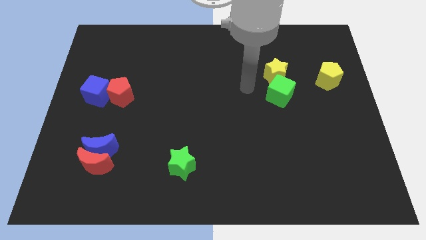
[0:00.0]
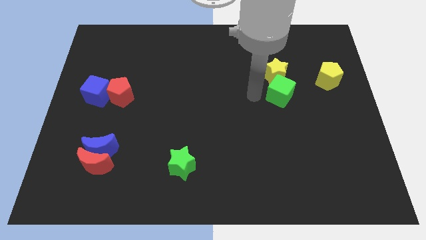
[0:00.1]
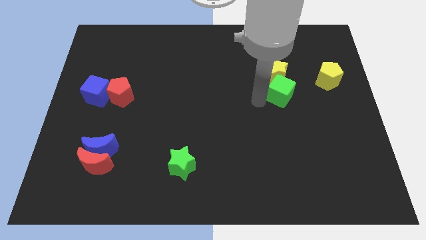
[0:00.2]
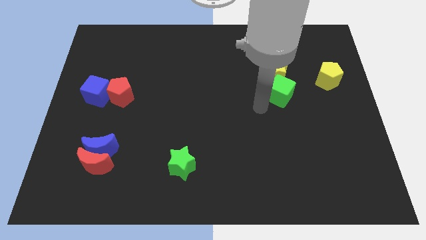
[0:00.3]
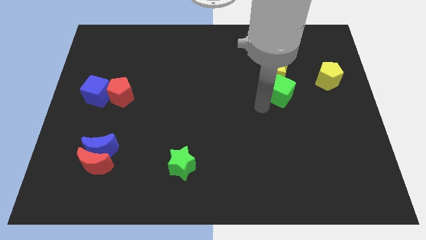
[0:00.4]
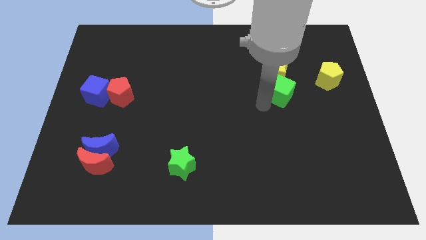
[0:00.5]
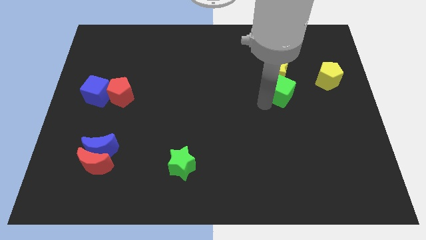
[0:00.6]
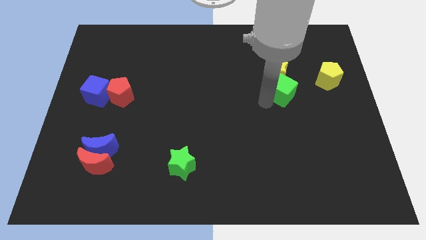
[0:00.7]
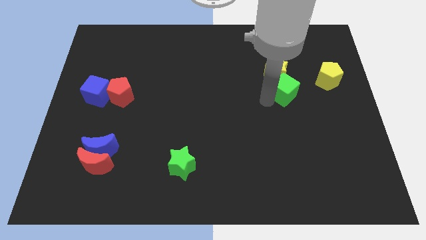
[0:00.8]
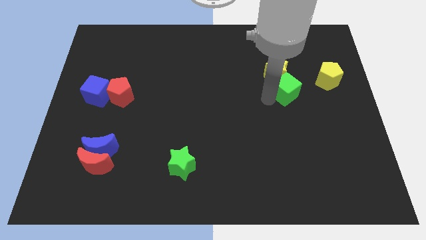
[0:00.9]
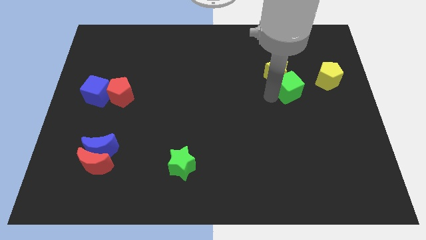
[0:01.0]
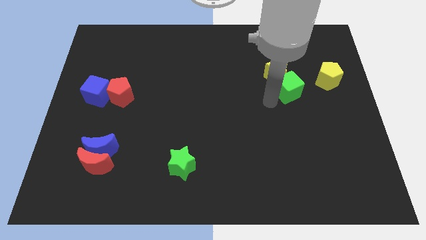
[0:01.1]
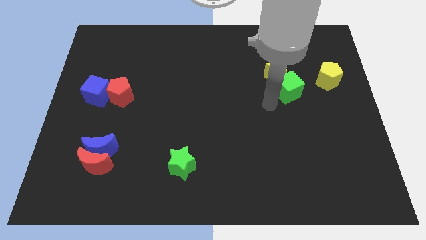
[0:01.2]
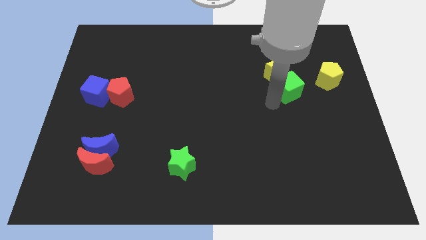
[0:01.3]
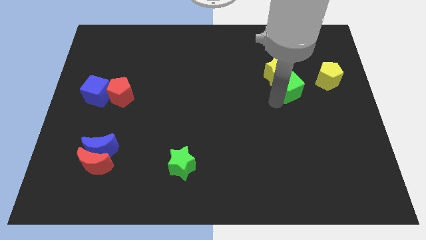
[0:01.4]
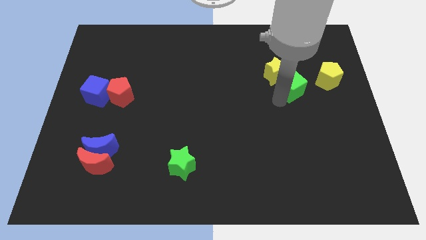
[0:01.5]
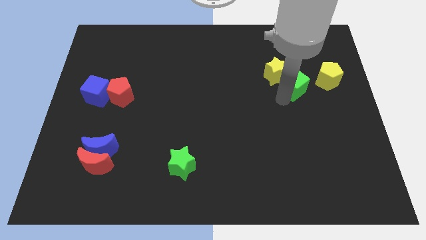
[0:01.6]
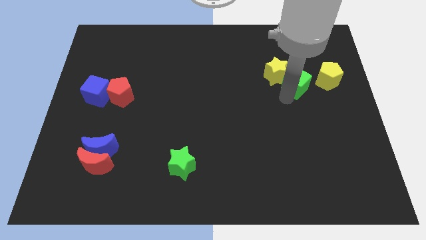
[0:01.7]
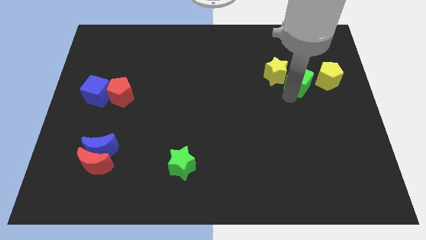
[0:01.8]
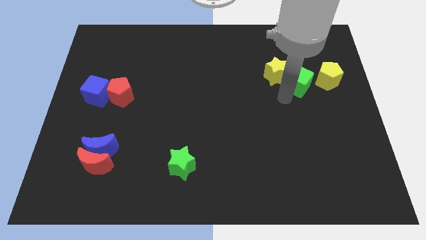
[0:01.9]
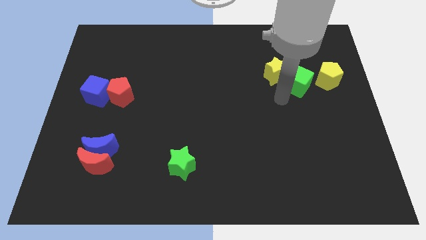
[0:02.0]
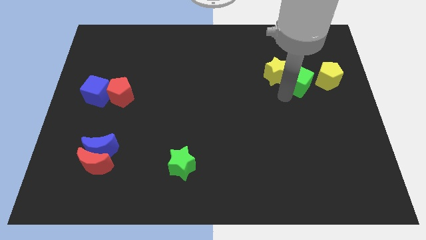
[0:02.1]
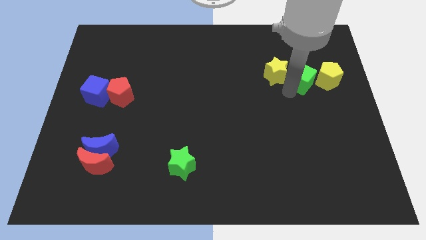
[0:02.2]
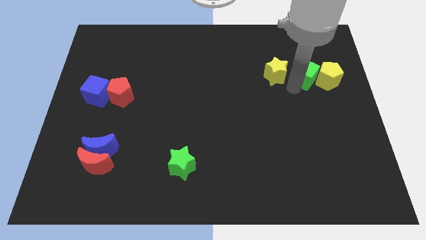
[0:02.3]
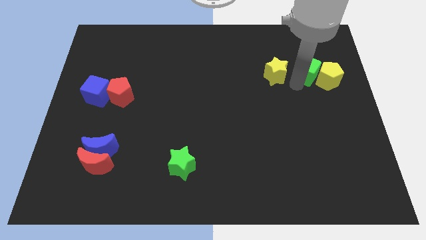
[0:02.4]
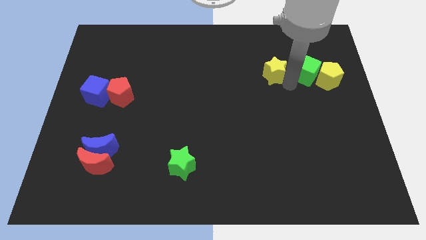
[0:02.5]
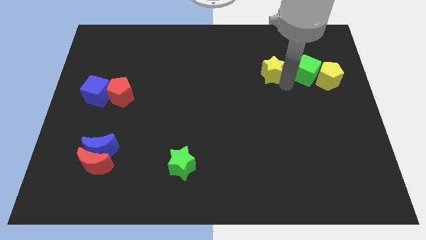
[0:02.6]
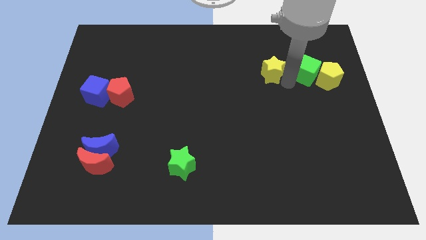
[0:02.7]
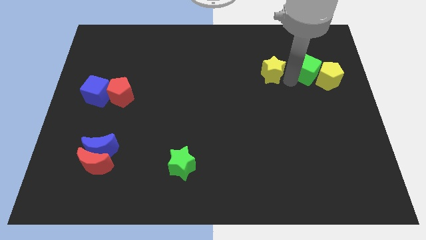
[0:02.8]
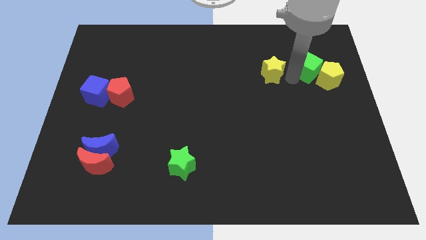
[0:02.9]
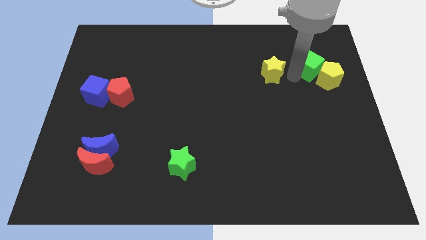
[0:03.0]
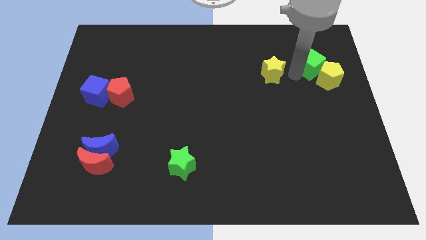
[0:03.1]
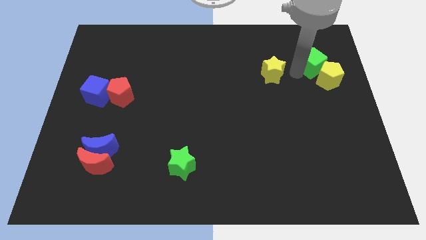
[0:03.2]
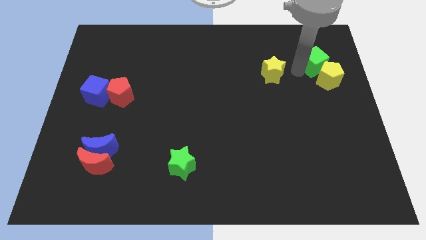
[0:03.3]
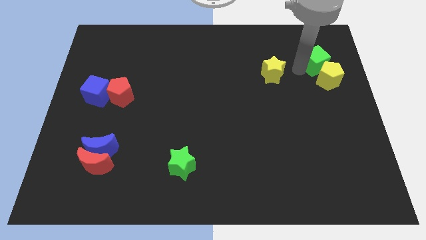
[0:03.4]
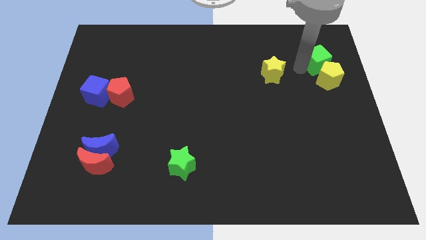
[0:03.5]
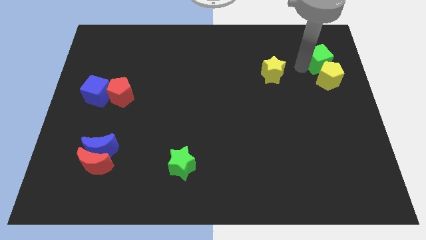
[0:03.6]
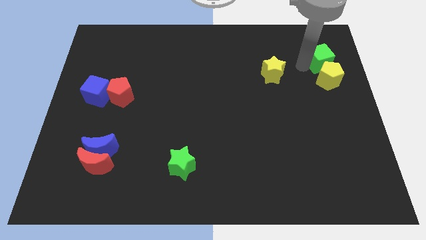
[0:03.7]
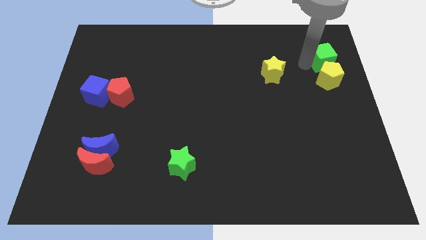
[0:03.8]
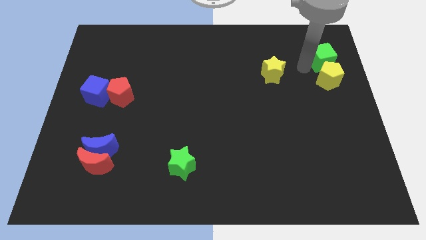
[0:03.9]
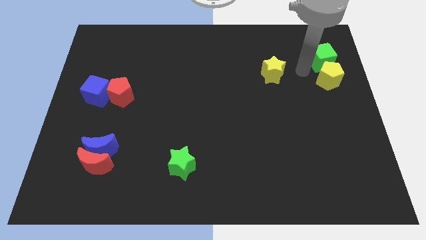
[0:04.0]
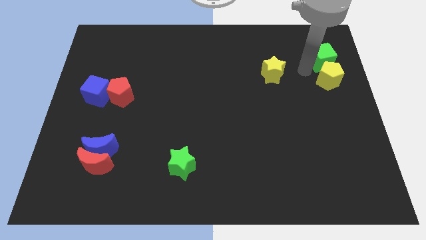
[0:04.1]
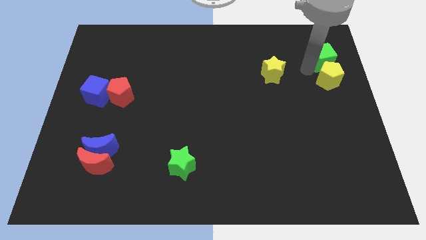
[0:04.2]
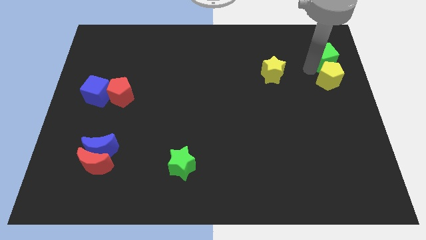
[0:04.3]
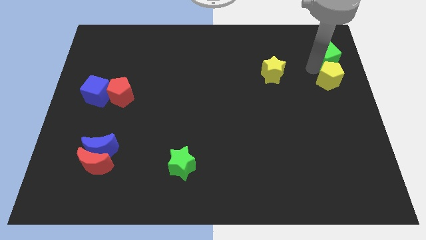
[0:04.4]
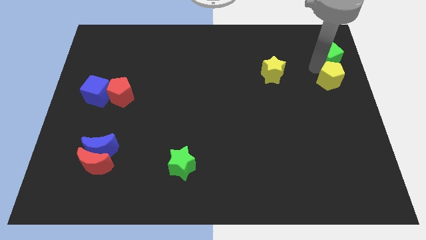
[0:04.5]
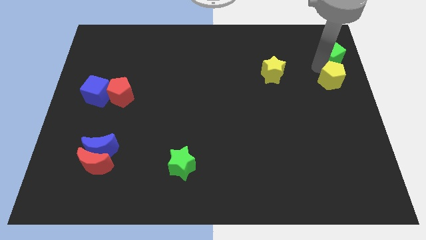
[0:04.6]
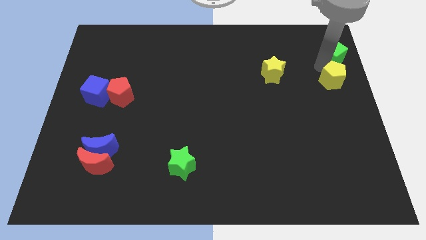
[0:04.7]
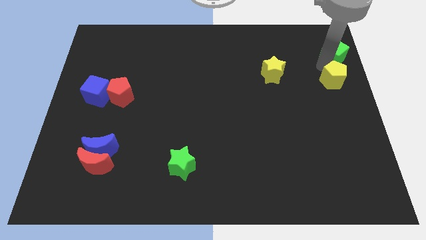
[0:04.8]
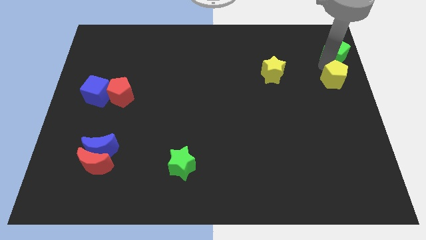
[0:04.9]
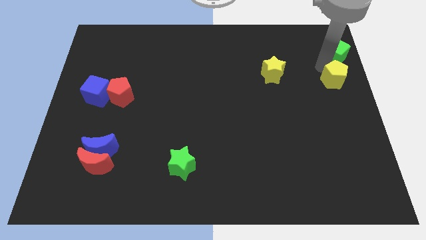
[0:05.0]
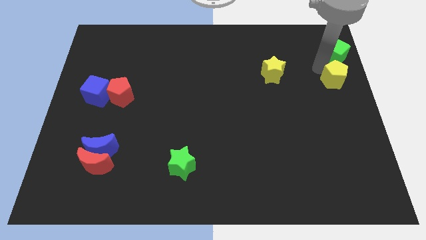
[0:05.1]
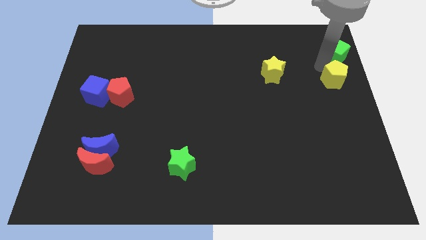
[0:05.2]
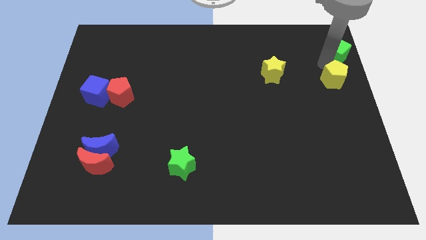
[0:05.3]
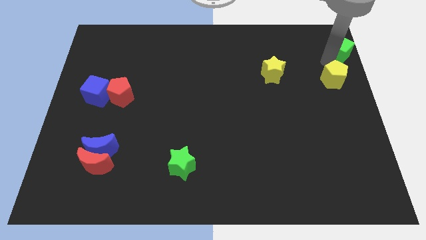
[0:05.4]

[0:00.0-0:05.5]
slide the green cube to the top right

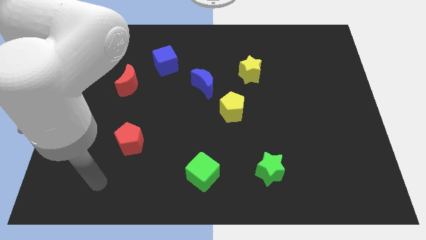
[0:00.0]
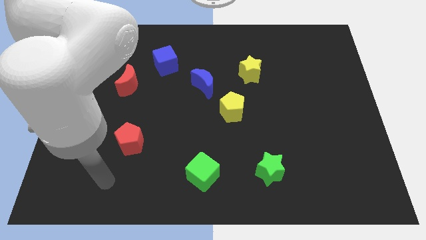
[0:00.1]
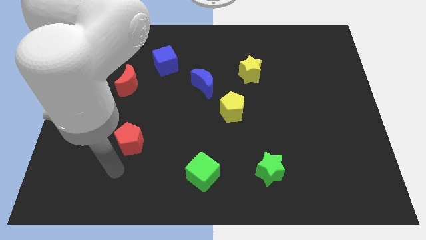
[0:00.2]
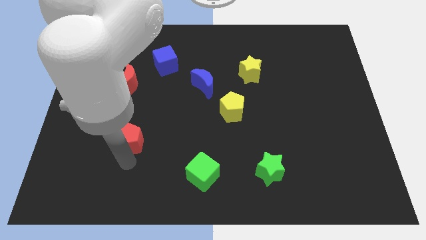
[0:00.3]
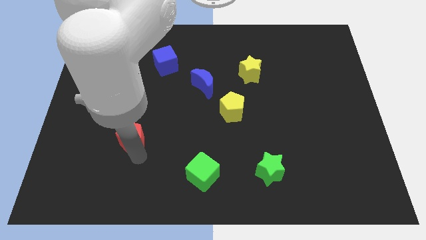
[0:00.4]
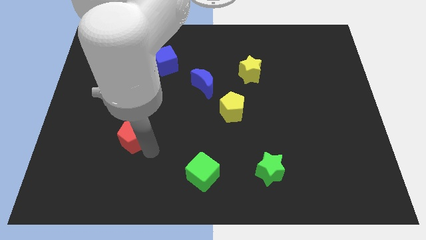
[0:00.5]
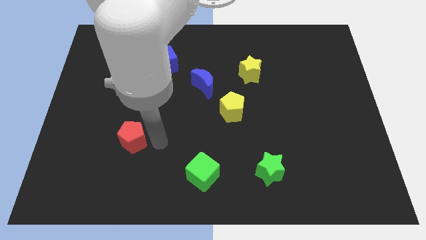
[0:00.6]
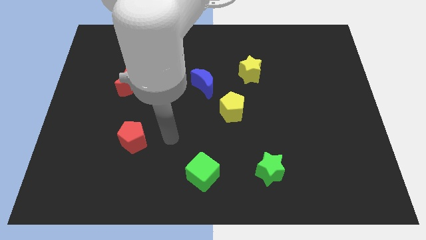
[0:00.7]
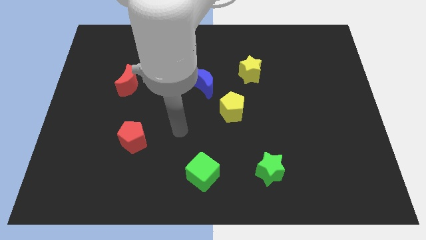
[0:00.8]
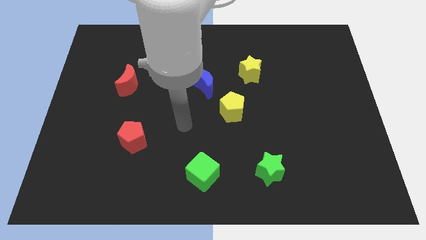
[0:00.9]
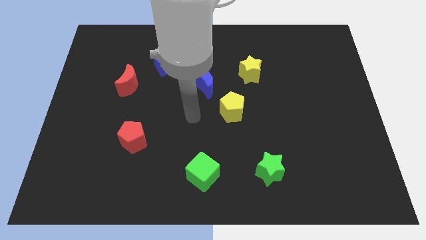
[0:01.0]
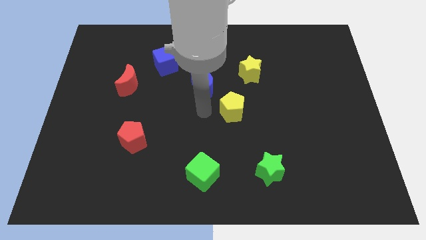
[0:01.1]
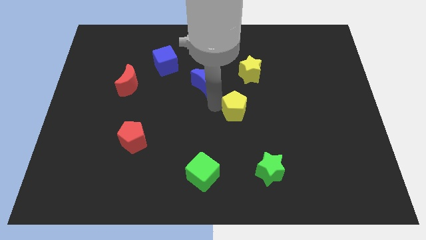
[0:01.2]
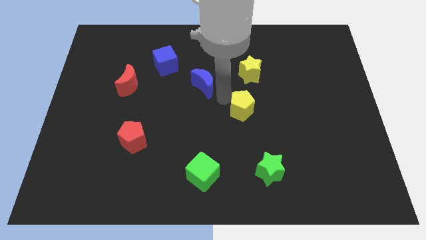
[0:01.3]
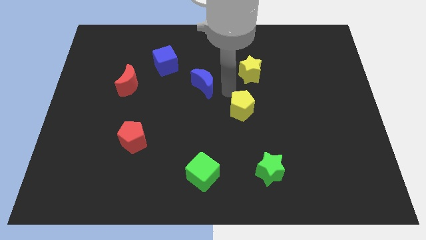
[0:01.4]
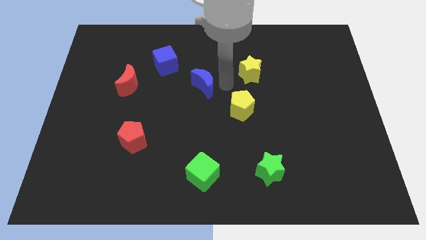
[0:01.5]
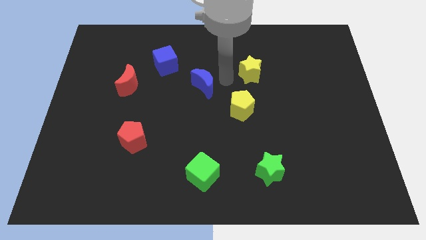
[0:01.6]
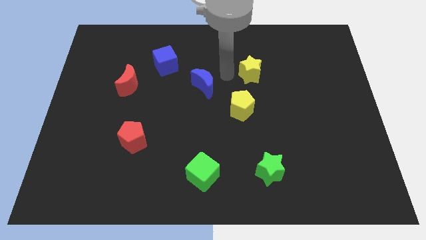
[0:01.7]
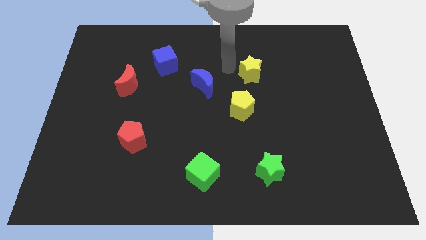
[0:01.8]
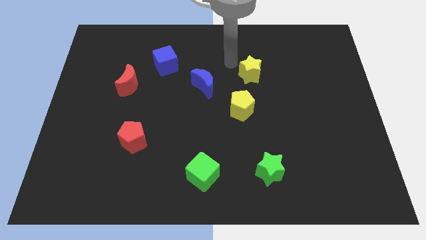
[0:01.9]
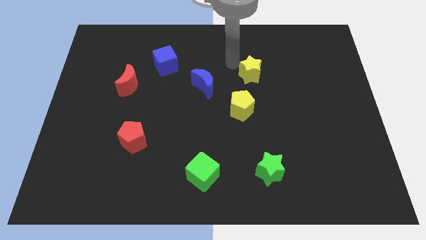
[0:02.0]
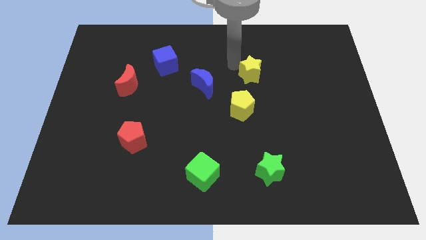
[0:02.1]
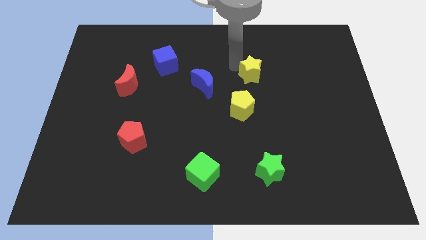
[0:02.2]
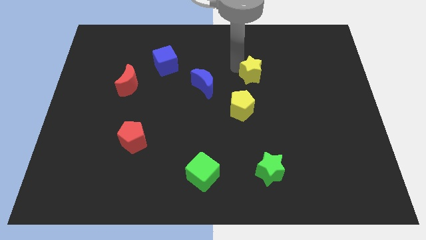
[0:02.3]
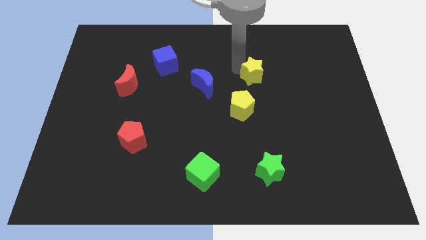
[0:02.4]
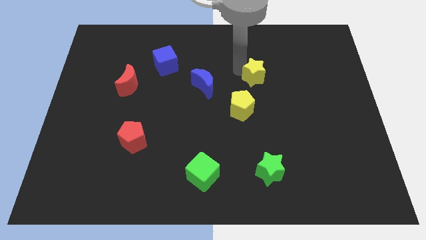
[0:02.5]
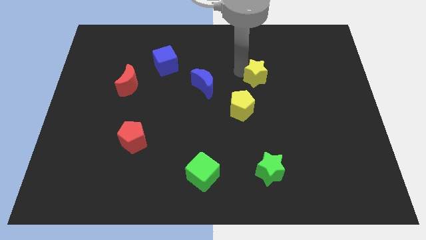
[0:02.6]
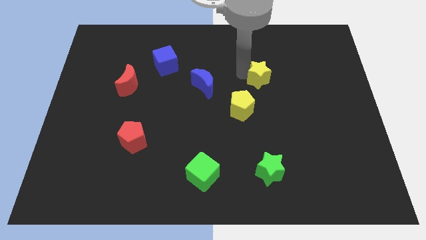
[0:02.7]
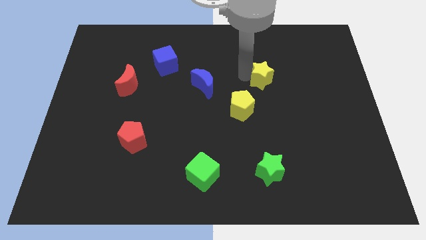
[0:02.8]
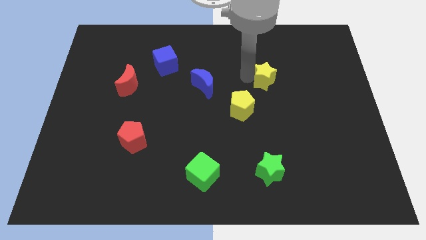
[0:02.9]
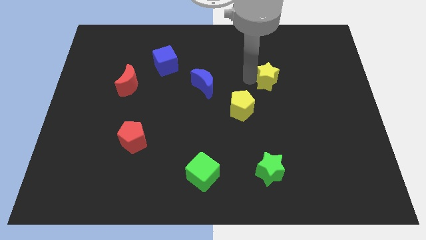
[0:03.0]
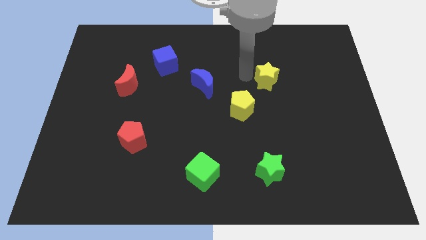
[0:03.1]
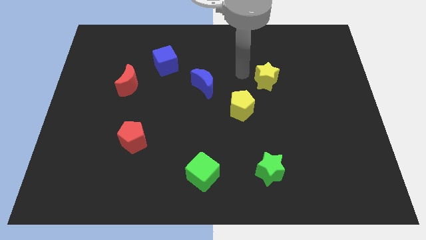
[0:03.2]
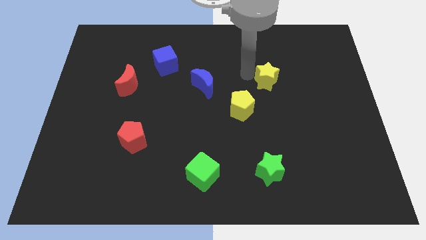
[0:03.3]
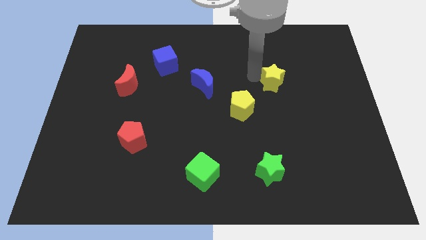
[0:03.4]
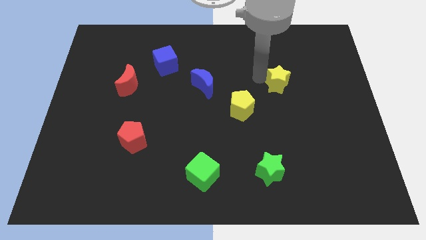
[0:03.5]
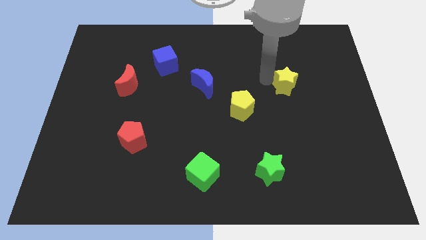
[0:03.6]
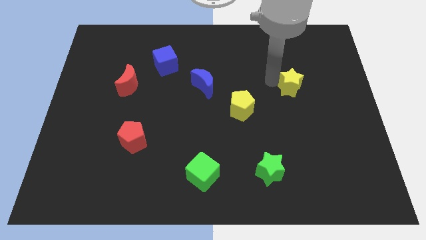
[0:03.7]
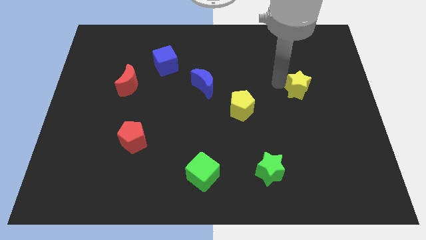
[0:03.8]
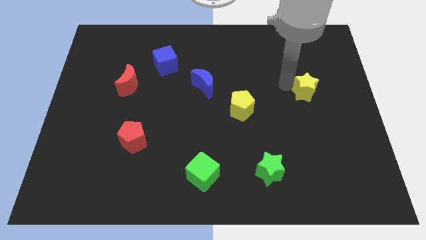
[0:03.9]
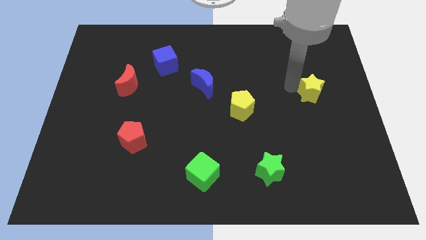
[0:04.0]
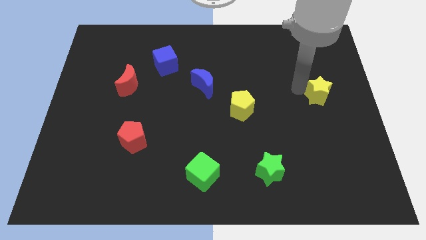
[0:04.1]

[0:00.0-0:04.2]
put the yellow star to the center right
